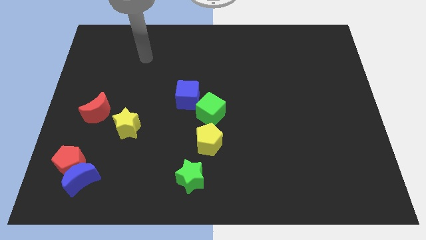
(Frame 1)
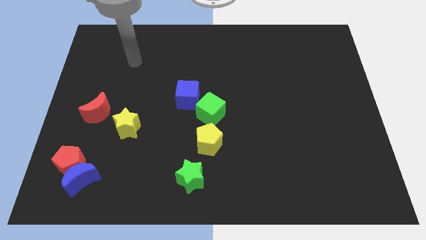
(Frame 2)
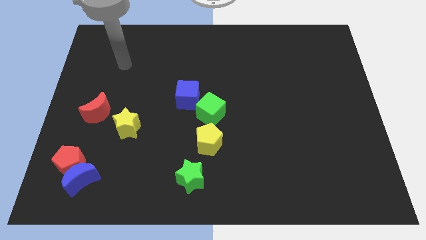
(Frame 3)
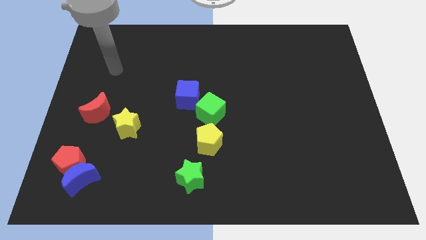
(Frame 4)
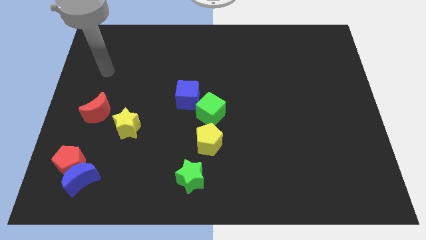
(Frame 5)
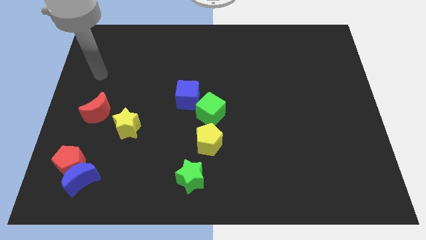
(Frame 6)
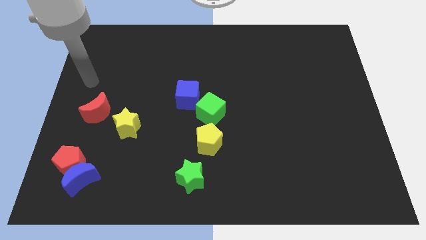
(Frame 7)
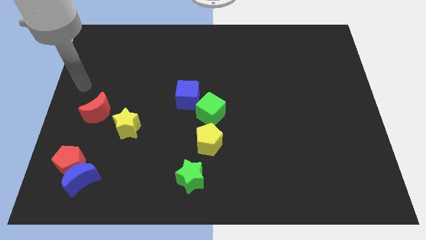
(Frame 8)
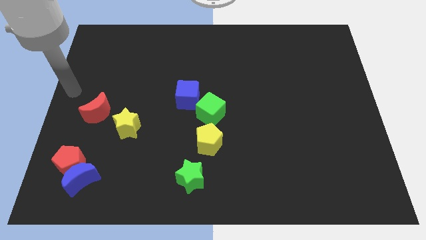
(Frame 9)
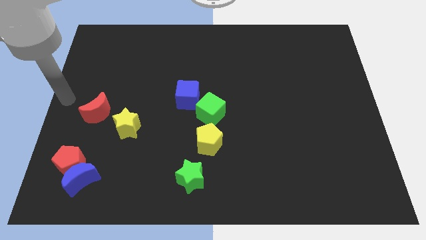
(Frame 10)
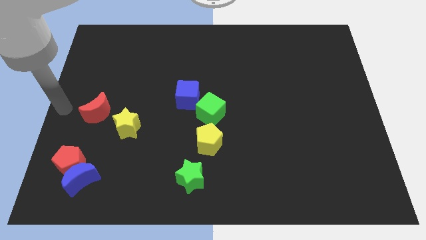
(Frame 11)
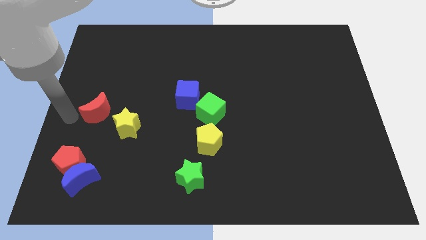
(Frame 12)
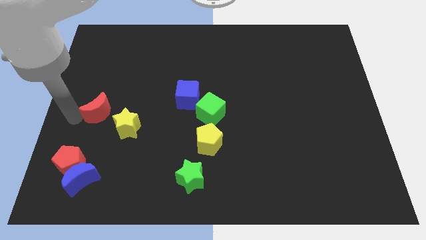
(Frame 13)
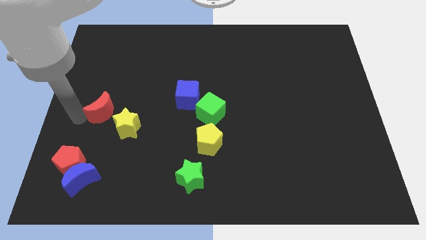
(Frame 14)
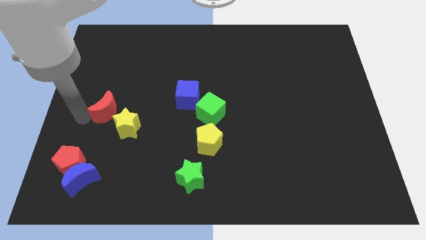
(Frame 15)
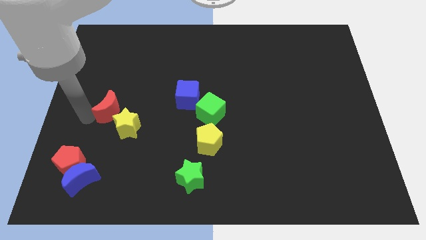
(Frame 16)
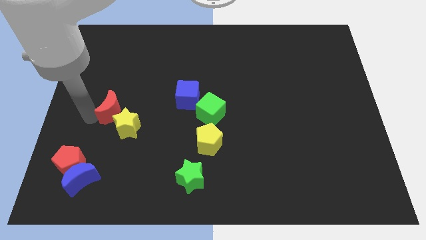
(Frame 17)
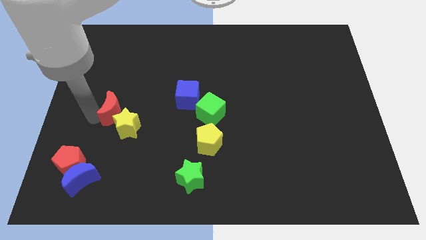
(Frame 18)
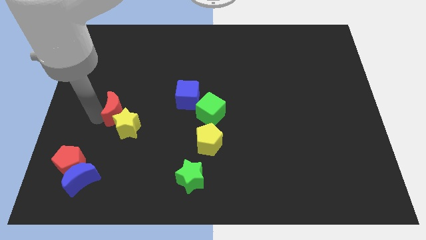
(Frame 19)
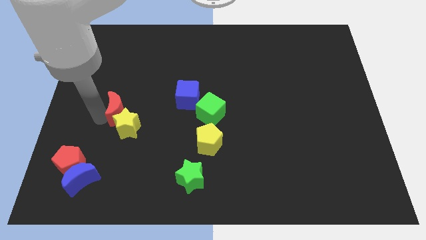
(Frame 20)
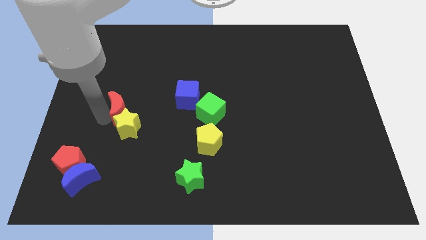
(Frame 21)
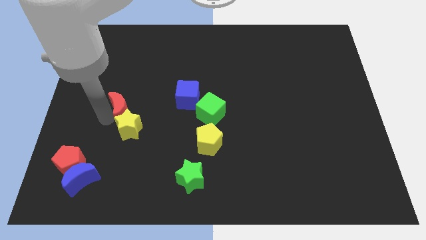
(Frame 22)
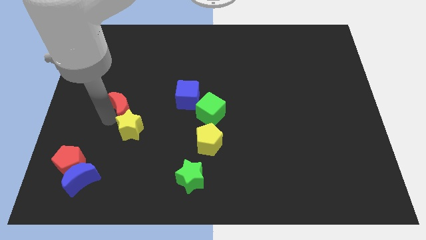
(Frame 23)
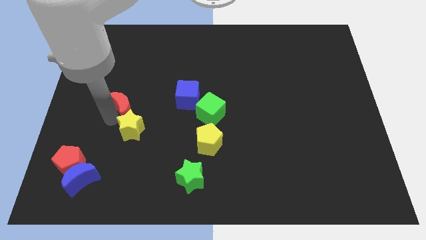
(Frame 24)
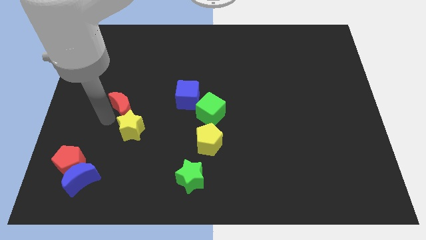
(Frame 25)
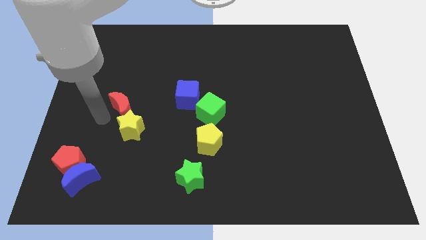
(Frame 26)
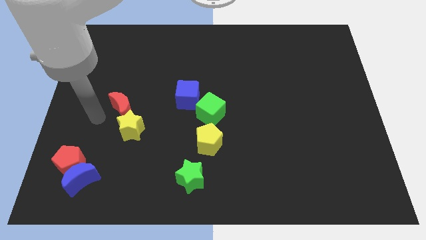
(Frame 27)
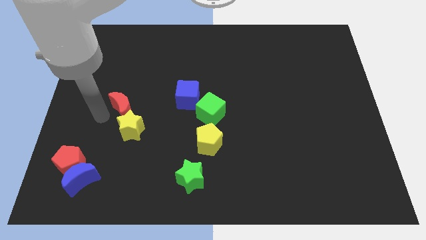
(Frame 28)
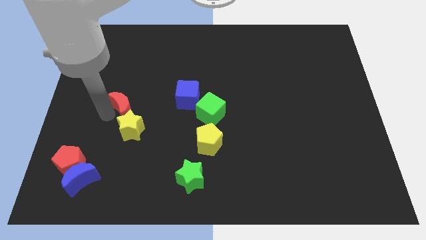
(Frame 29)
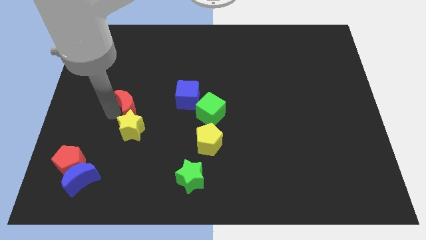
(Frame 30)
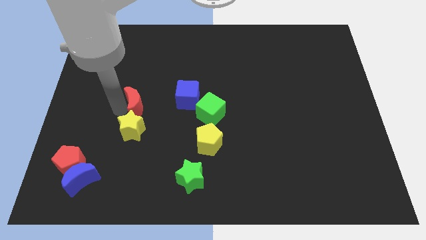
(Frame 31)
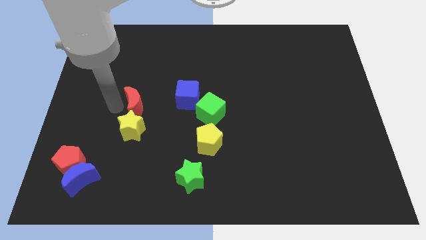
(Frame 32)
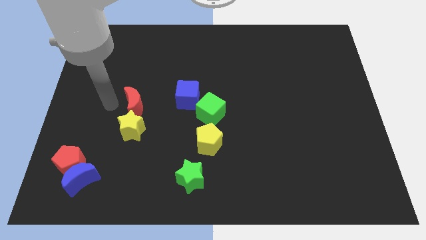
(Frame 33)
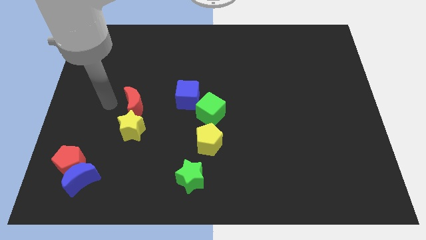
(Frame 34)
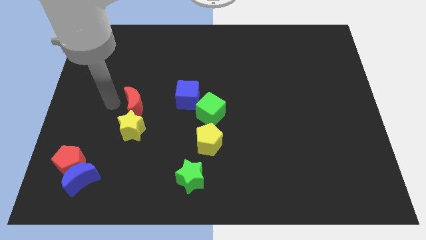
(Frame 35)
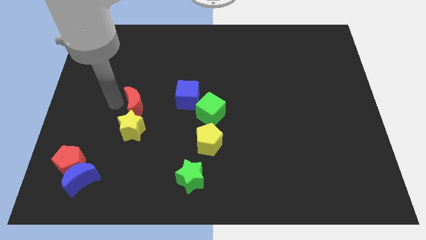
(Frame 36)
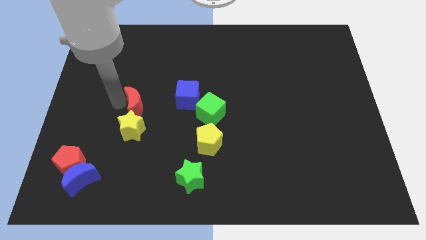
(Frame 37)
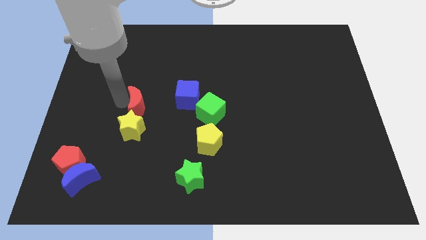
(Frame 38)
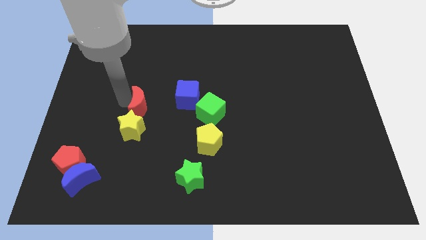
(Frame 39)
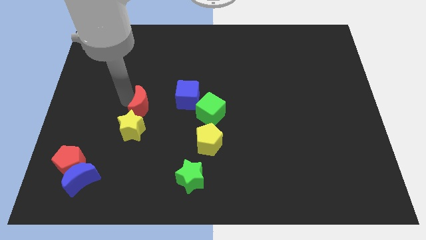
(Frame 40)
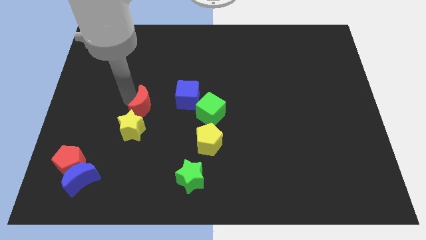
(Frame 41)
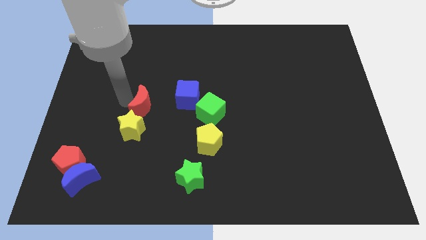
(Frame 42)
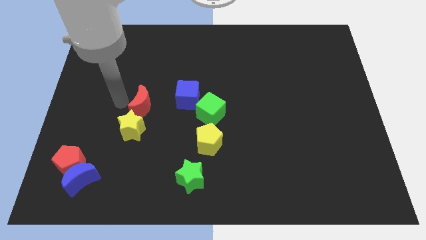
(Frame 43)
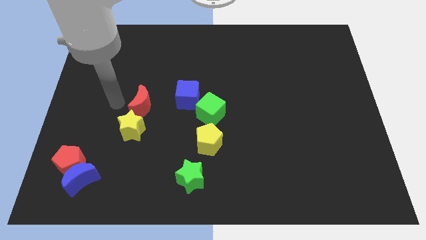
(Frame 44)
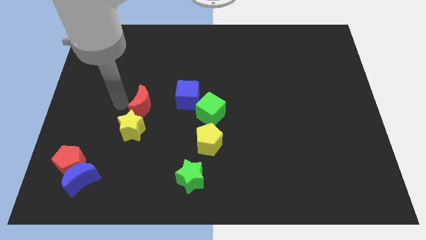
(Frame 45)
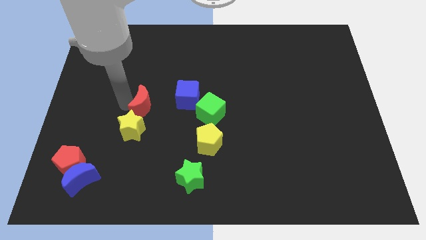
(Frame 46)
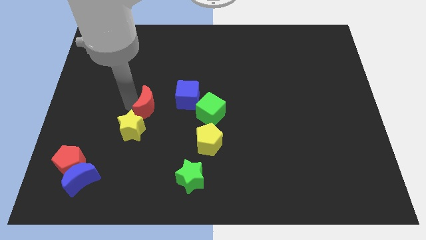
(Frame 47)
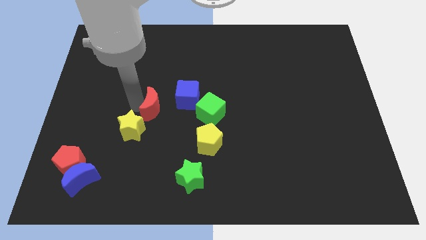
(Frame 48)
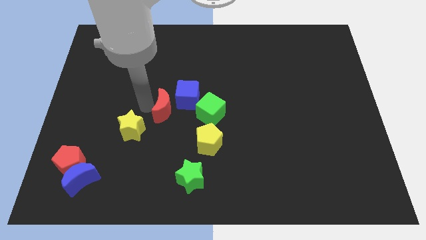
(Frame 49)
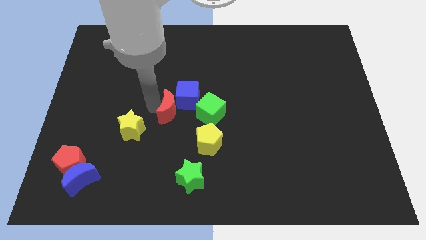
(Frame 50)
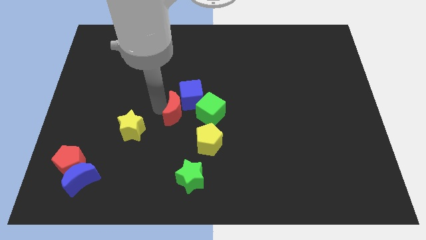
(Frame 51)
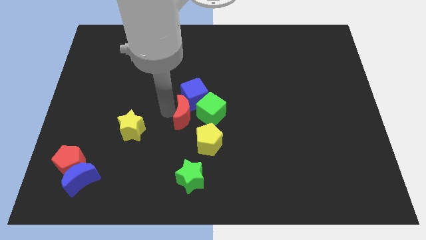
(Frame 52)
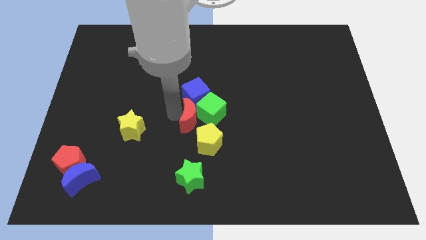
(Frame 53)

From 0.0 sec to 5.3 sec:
put the red moon close to the green cube

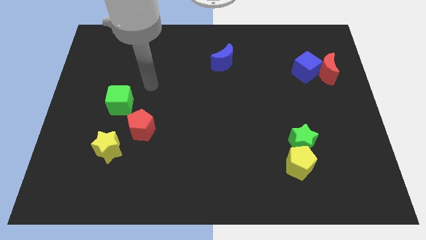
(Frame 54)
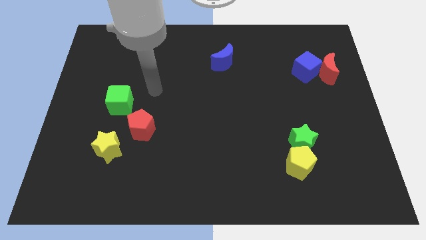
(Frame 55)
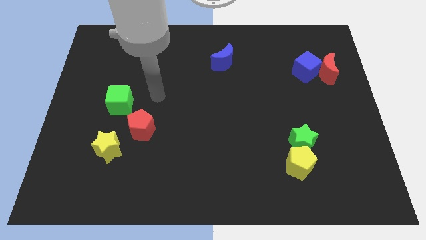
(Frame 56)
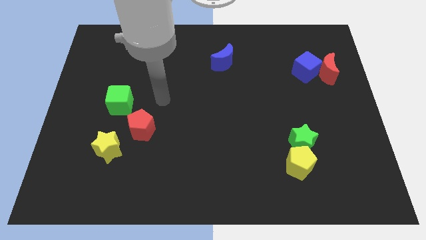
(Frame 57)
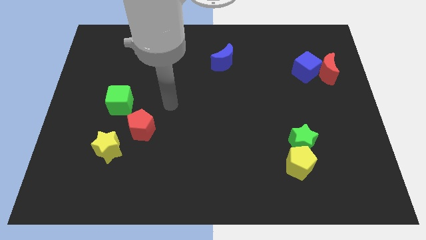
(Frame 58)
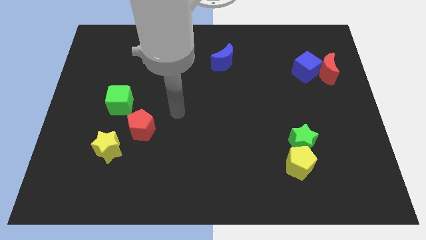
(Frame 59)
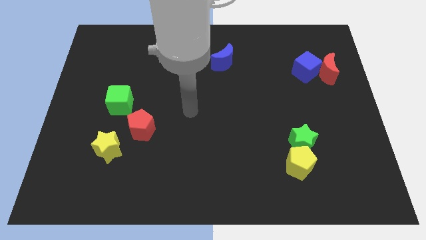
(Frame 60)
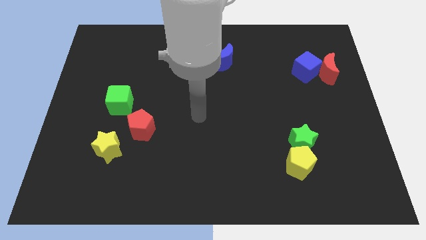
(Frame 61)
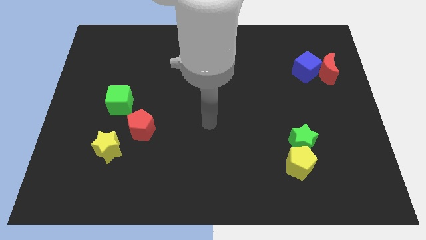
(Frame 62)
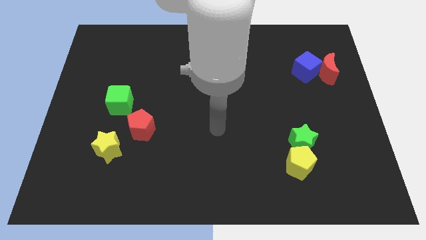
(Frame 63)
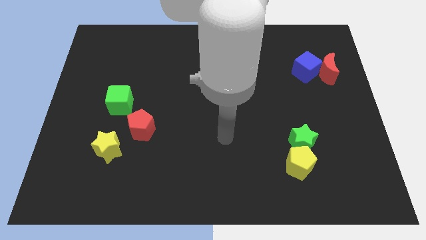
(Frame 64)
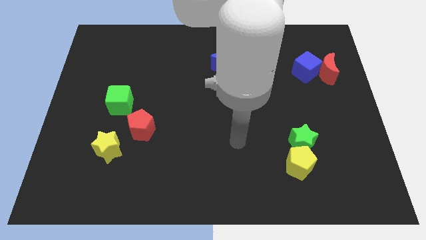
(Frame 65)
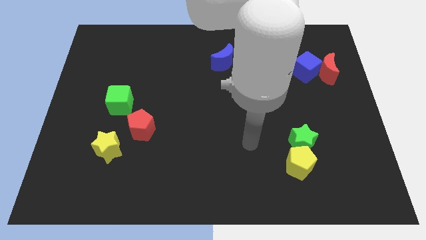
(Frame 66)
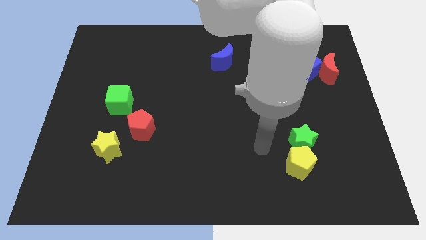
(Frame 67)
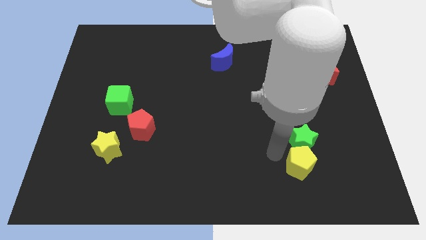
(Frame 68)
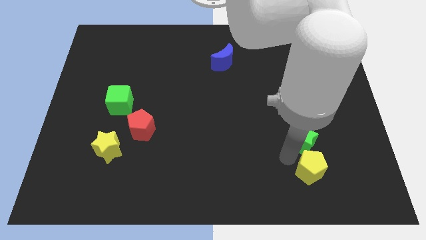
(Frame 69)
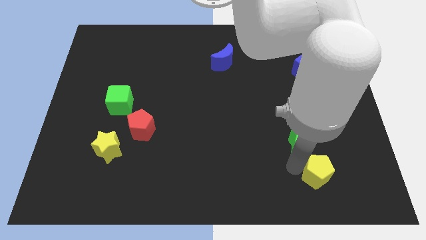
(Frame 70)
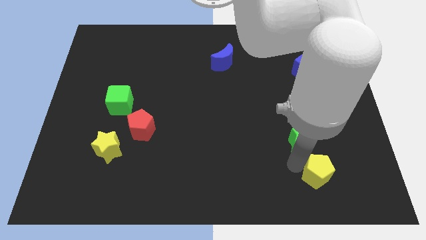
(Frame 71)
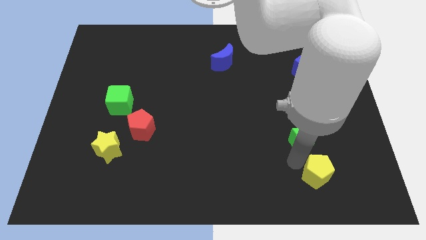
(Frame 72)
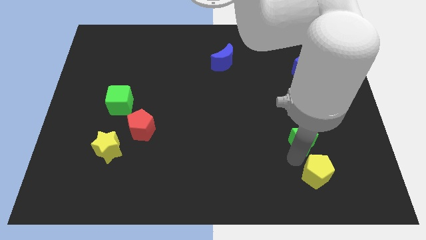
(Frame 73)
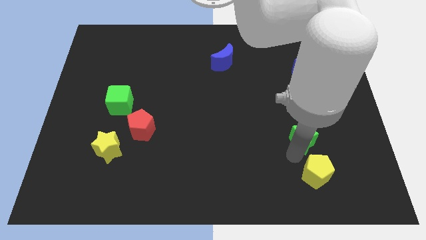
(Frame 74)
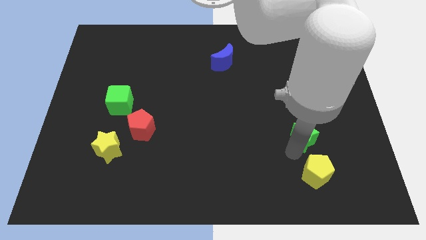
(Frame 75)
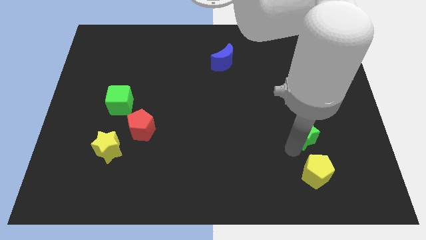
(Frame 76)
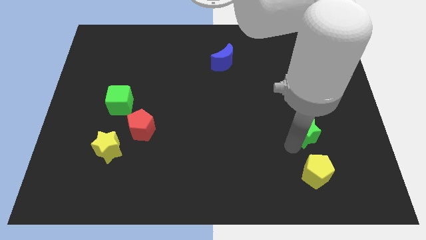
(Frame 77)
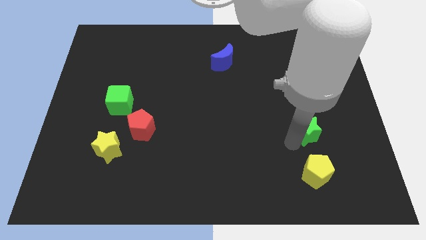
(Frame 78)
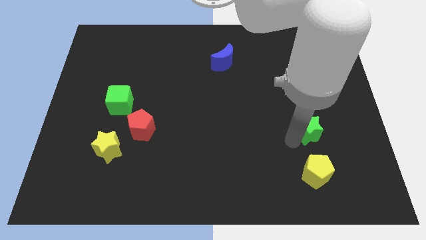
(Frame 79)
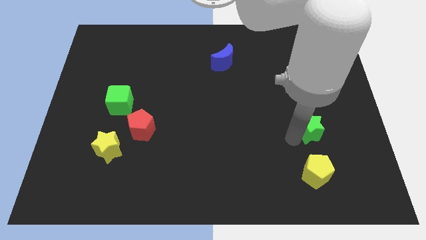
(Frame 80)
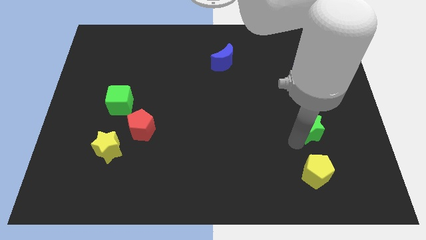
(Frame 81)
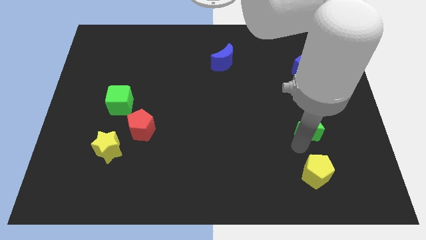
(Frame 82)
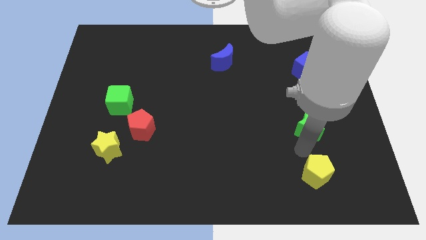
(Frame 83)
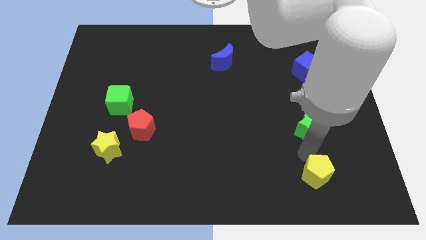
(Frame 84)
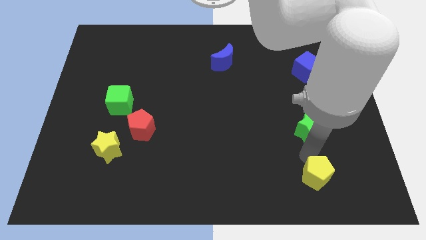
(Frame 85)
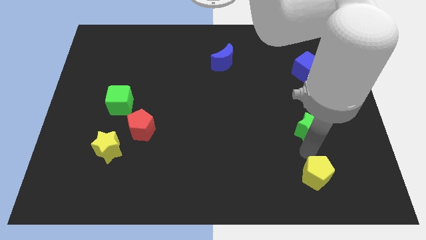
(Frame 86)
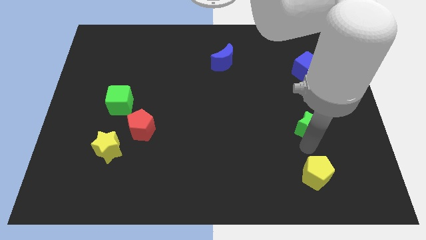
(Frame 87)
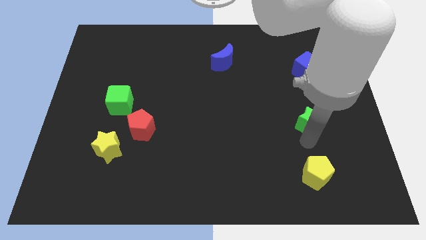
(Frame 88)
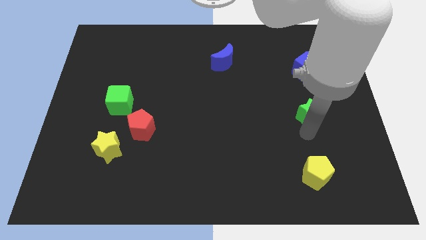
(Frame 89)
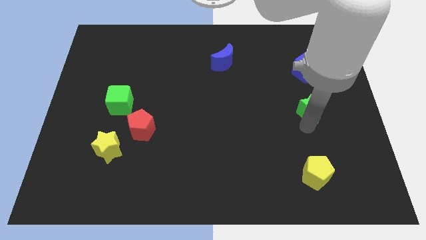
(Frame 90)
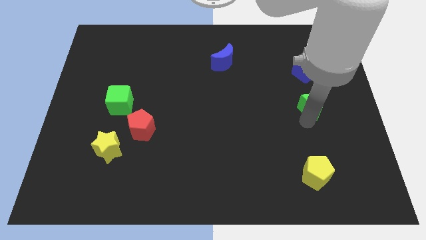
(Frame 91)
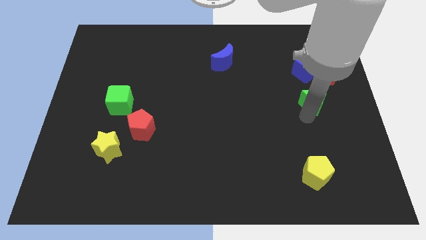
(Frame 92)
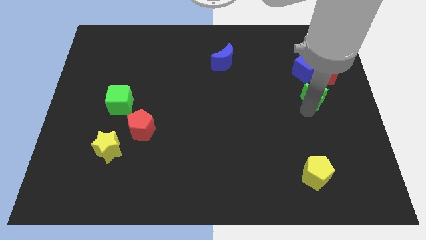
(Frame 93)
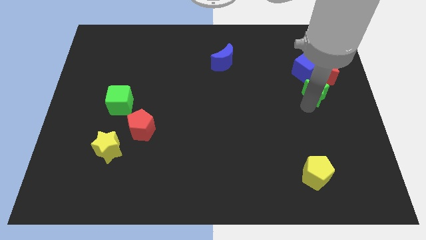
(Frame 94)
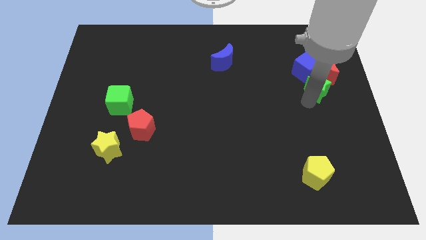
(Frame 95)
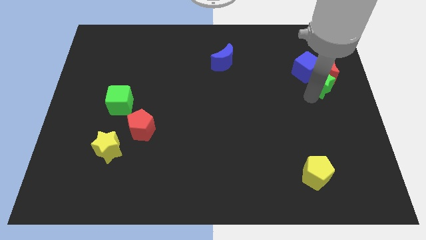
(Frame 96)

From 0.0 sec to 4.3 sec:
move the green star to the red moon
